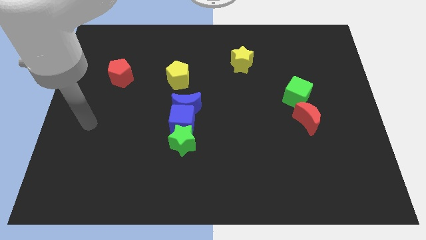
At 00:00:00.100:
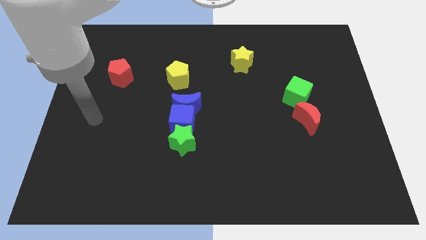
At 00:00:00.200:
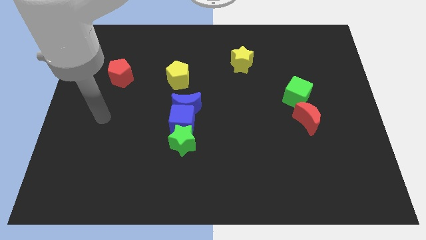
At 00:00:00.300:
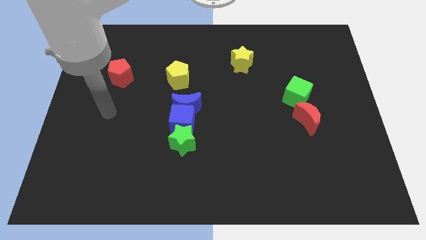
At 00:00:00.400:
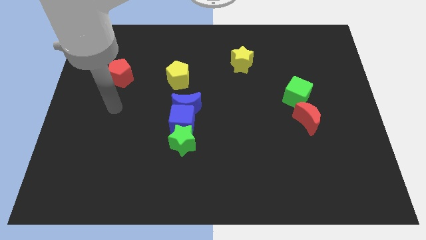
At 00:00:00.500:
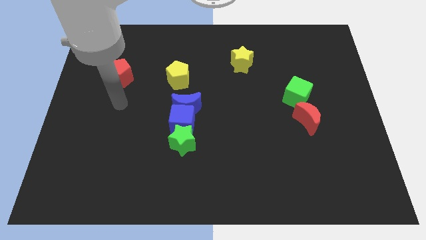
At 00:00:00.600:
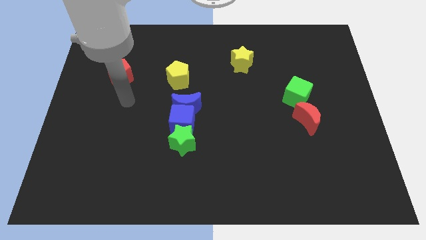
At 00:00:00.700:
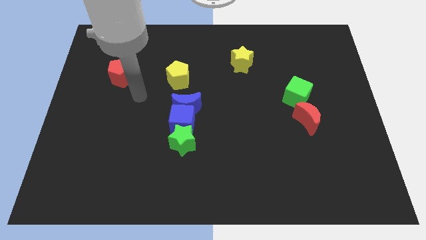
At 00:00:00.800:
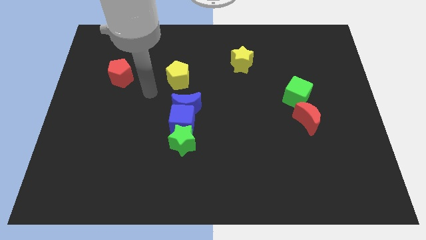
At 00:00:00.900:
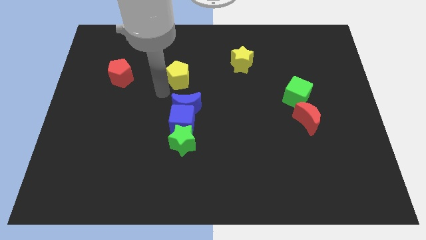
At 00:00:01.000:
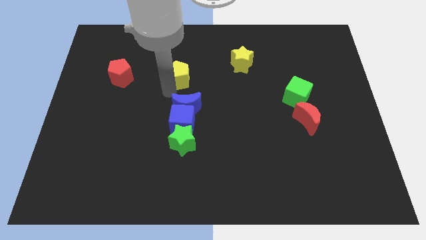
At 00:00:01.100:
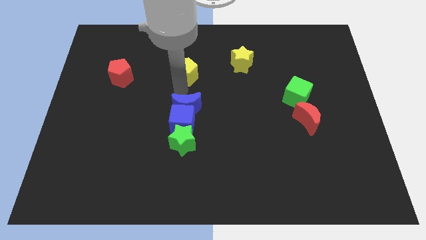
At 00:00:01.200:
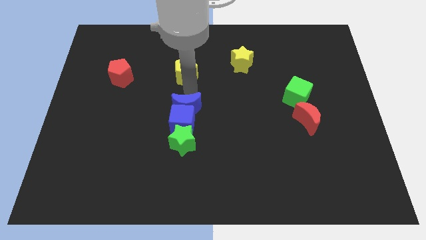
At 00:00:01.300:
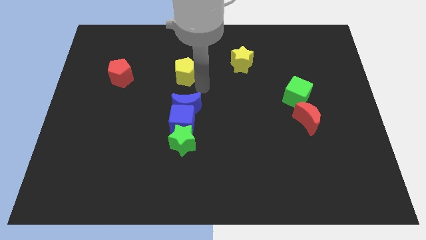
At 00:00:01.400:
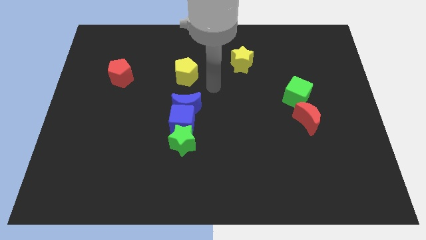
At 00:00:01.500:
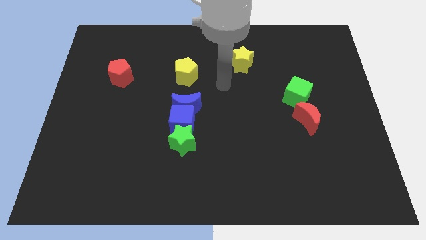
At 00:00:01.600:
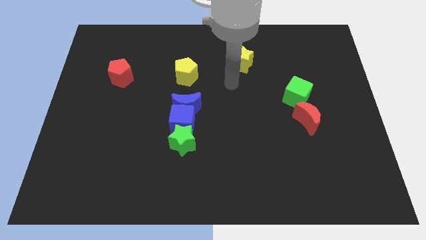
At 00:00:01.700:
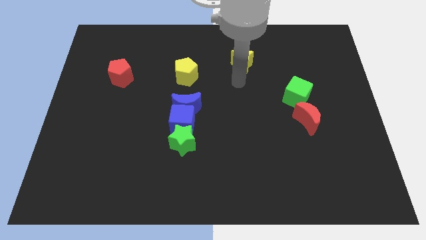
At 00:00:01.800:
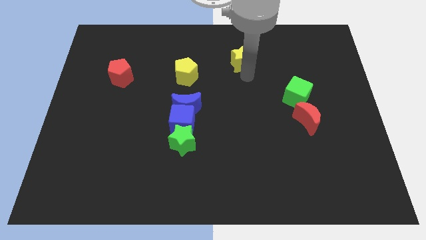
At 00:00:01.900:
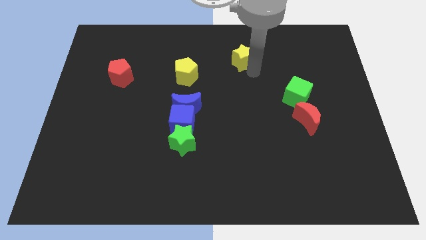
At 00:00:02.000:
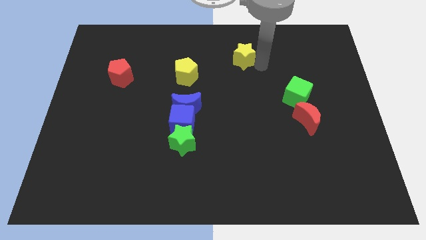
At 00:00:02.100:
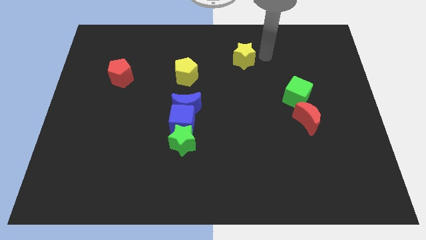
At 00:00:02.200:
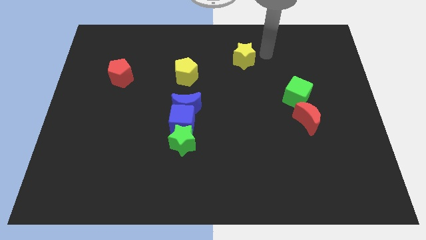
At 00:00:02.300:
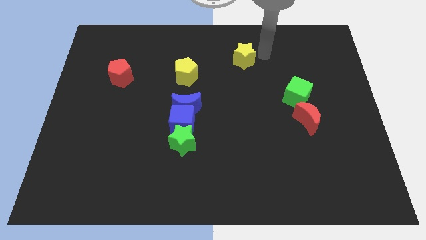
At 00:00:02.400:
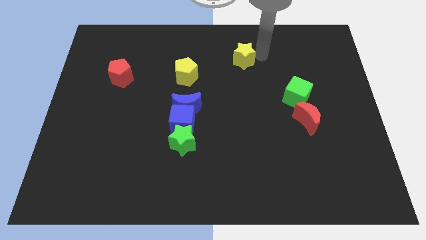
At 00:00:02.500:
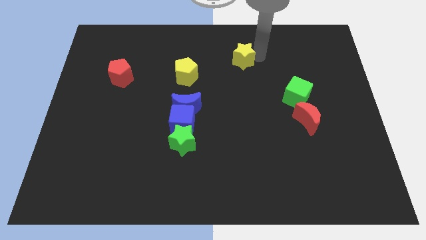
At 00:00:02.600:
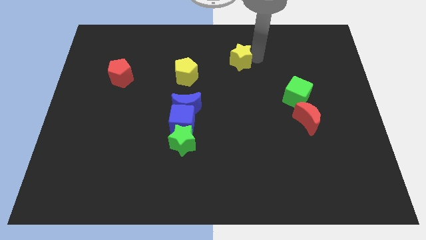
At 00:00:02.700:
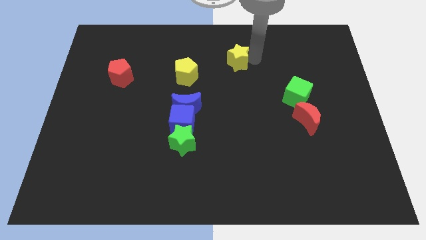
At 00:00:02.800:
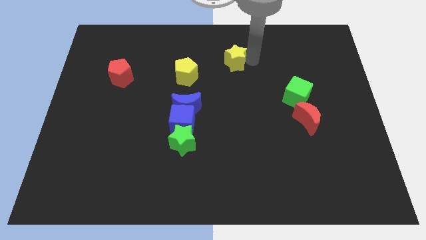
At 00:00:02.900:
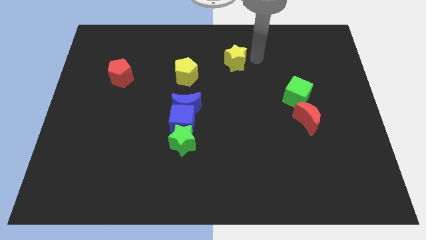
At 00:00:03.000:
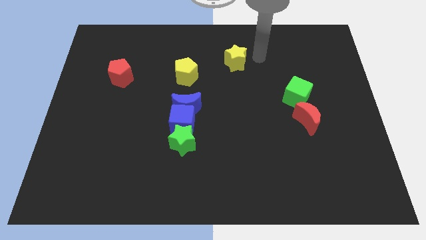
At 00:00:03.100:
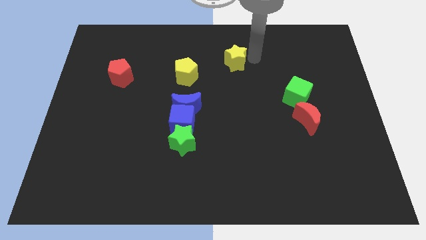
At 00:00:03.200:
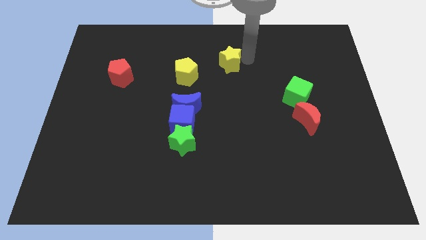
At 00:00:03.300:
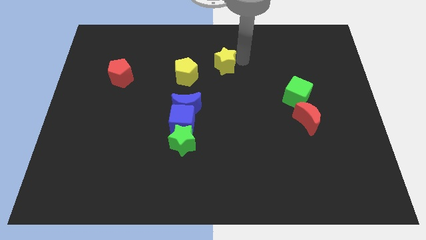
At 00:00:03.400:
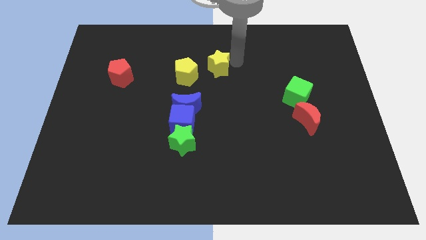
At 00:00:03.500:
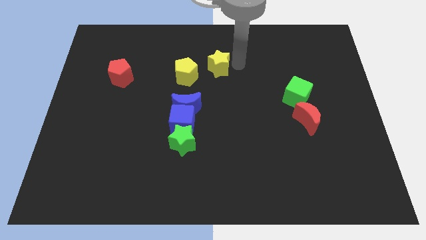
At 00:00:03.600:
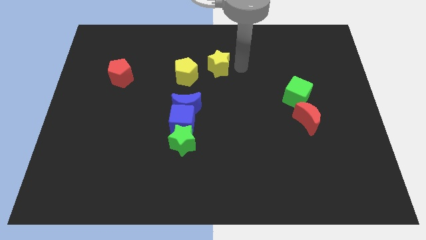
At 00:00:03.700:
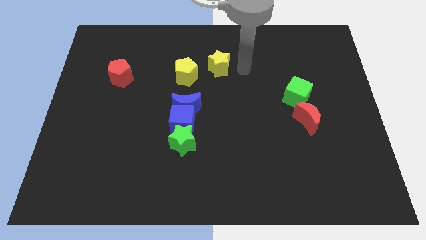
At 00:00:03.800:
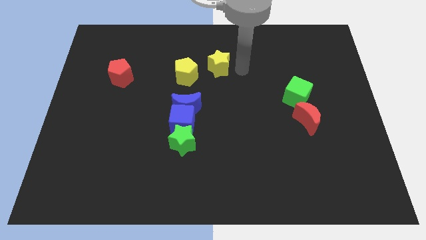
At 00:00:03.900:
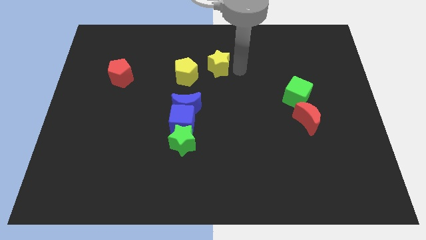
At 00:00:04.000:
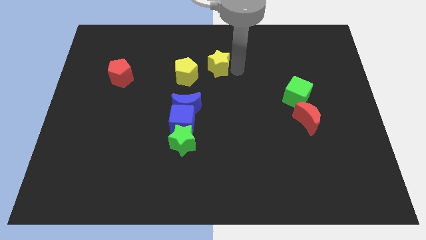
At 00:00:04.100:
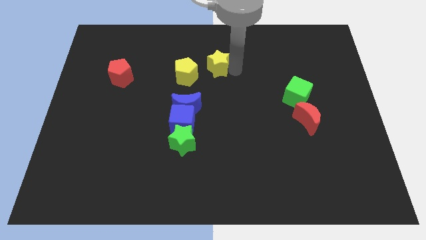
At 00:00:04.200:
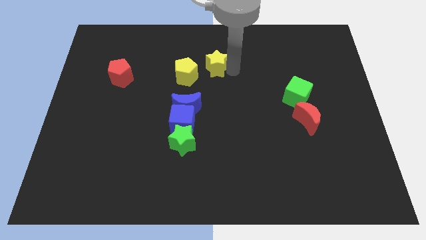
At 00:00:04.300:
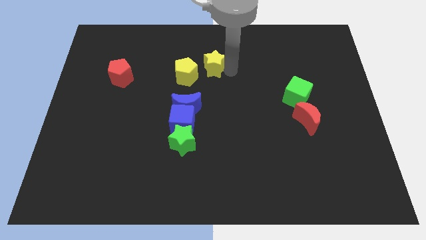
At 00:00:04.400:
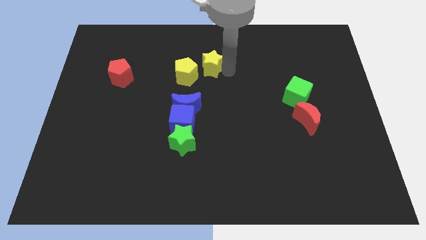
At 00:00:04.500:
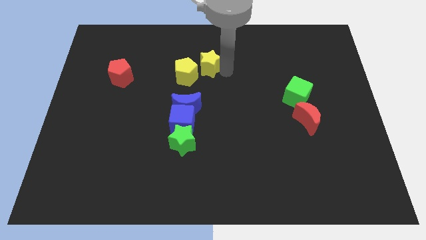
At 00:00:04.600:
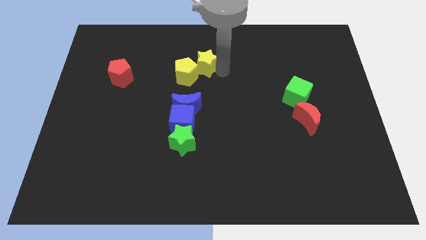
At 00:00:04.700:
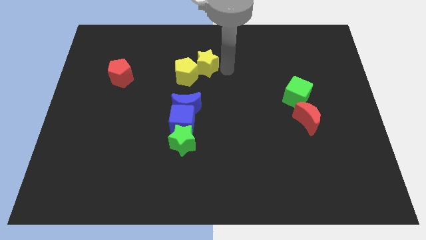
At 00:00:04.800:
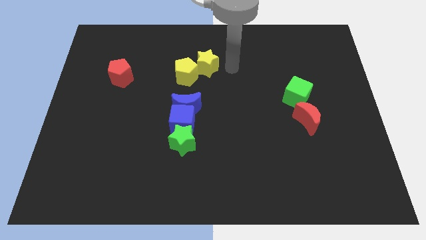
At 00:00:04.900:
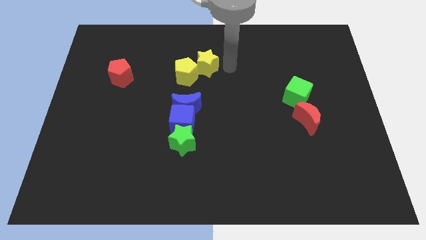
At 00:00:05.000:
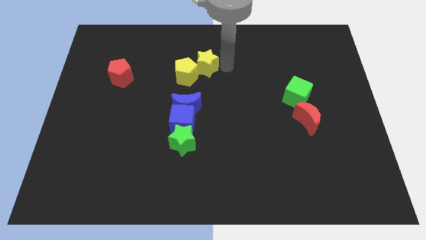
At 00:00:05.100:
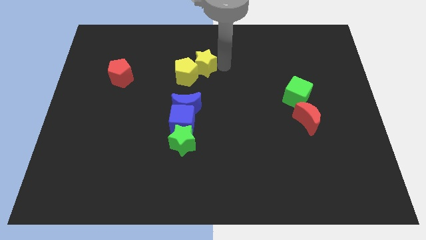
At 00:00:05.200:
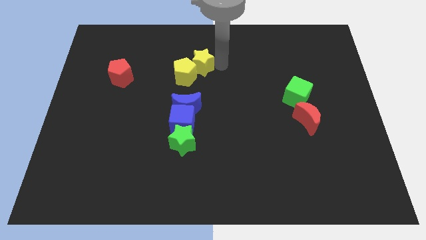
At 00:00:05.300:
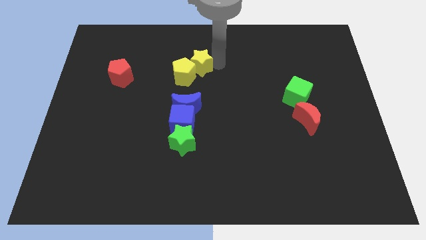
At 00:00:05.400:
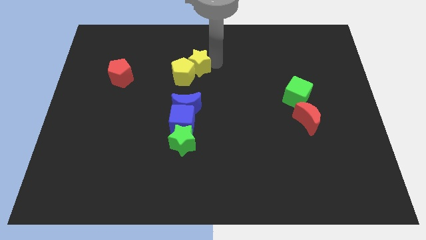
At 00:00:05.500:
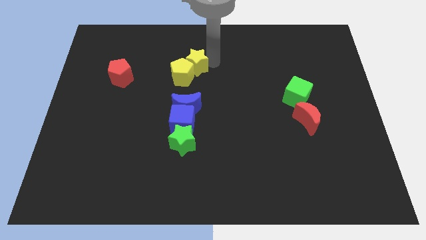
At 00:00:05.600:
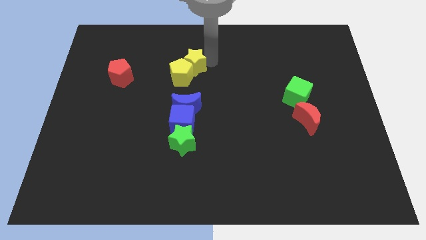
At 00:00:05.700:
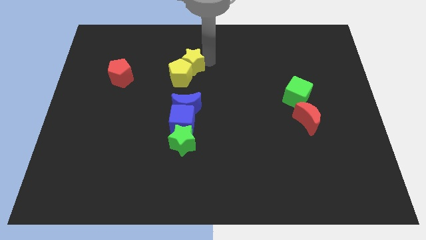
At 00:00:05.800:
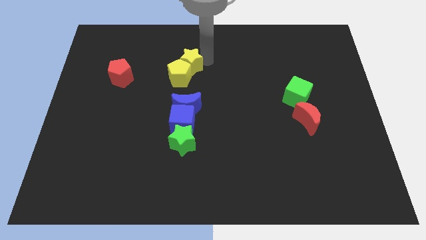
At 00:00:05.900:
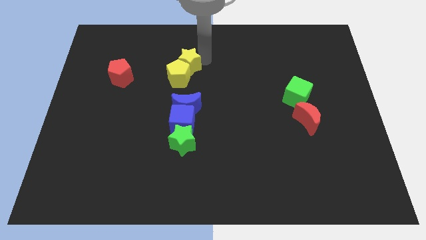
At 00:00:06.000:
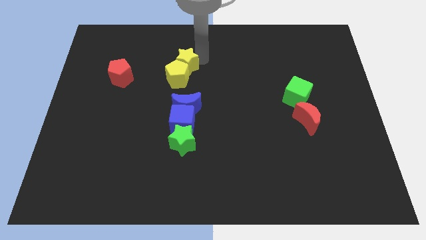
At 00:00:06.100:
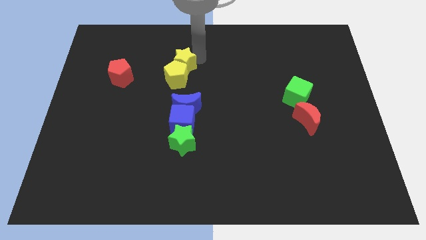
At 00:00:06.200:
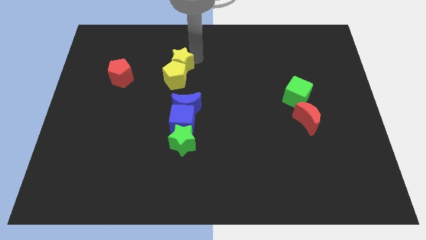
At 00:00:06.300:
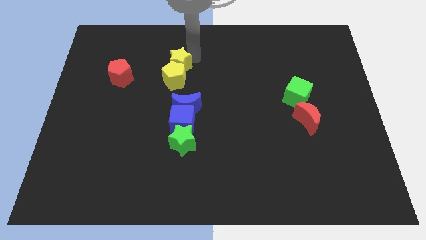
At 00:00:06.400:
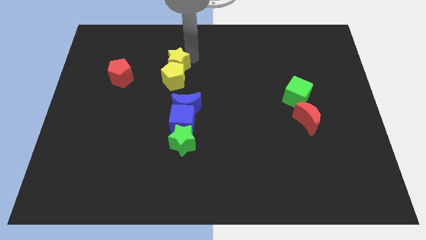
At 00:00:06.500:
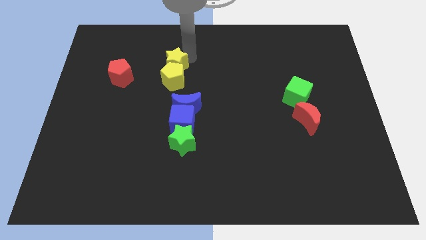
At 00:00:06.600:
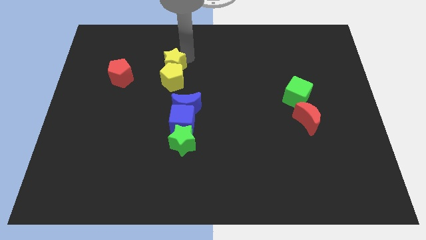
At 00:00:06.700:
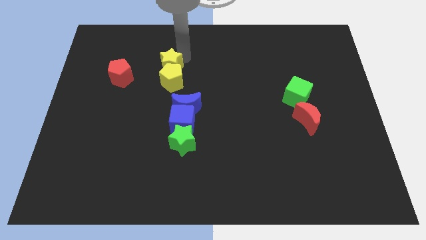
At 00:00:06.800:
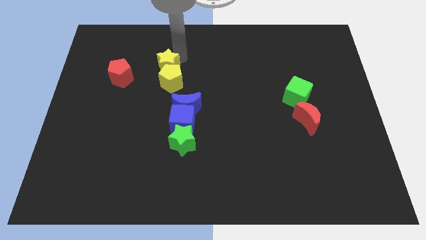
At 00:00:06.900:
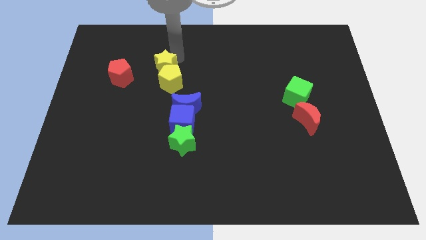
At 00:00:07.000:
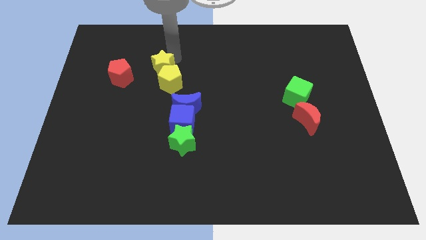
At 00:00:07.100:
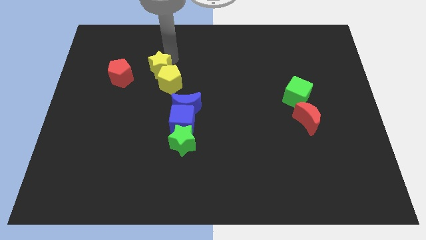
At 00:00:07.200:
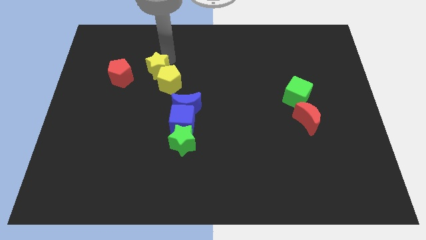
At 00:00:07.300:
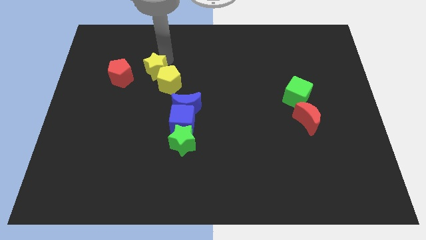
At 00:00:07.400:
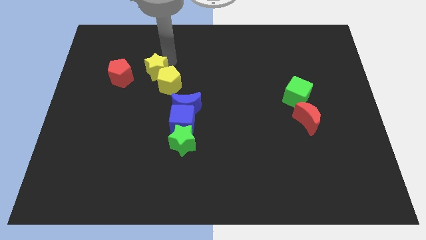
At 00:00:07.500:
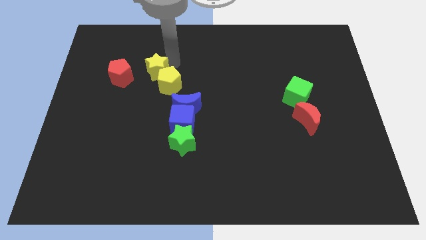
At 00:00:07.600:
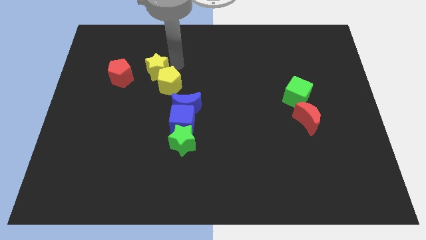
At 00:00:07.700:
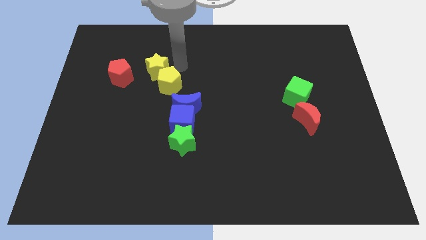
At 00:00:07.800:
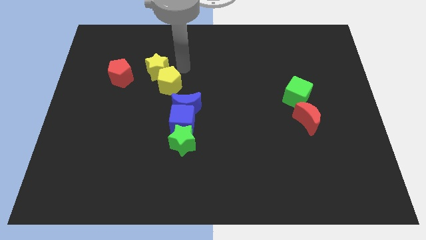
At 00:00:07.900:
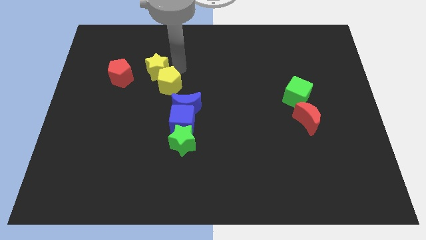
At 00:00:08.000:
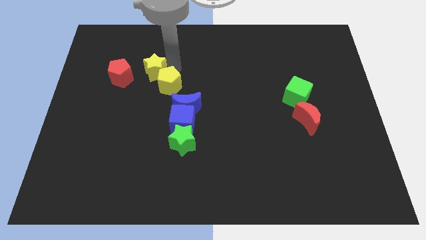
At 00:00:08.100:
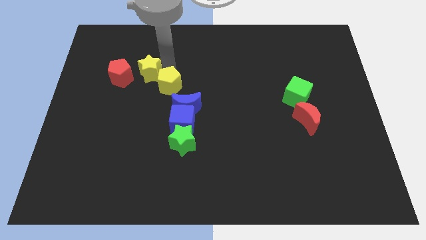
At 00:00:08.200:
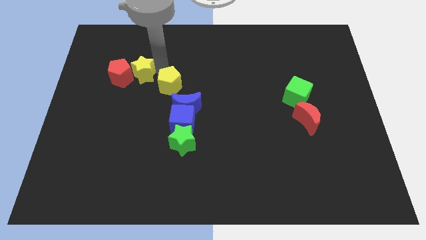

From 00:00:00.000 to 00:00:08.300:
push the yellow star close to the red pentagon
